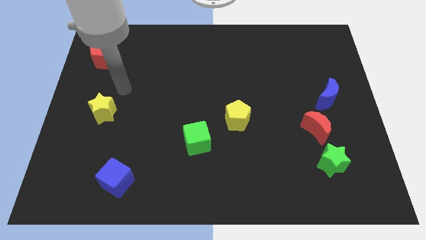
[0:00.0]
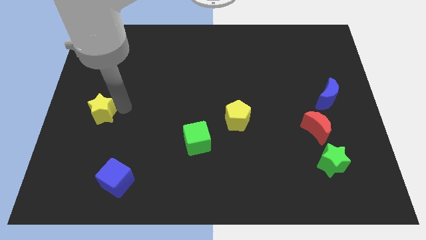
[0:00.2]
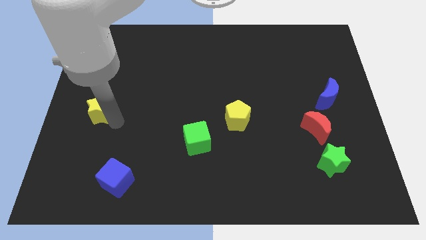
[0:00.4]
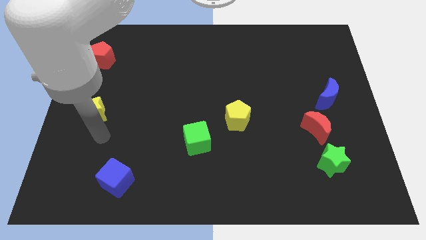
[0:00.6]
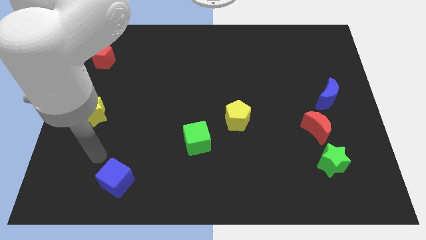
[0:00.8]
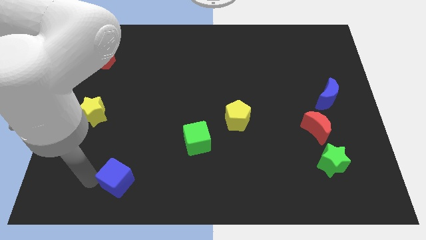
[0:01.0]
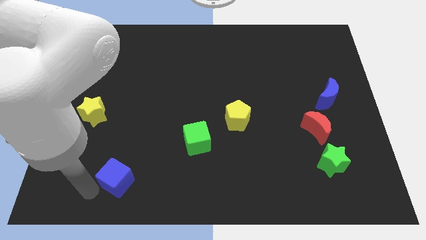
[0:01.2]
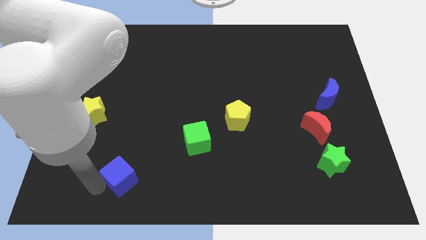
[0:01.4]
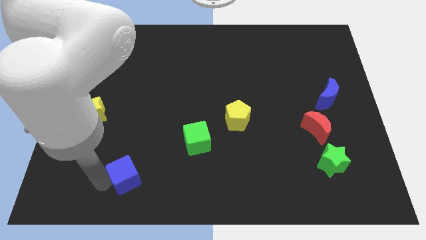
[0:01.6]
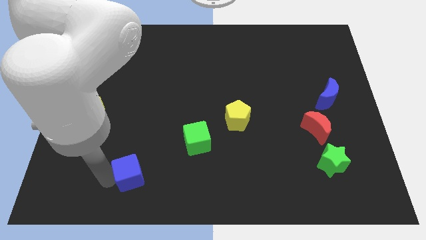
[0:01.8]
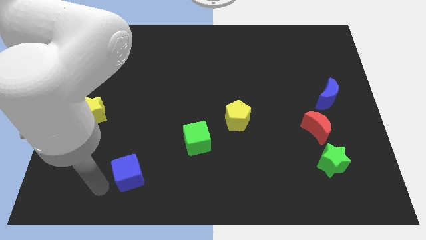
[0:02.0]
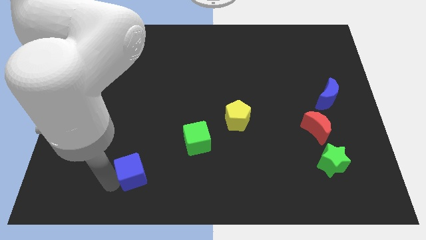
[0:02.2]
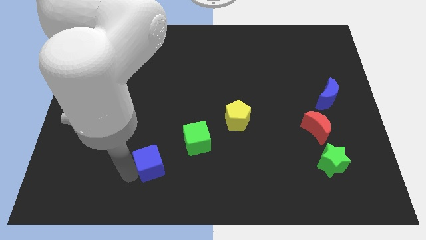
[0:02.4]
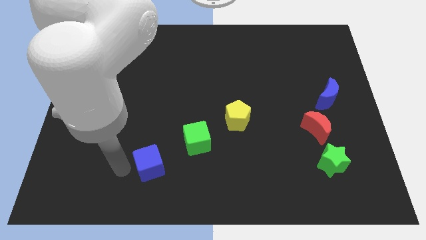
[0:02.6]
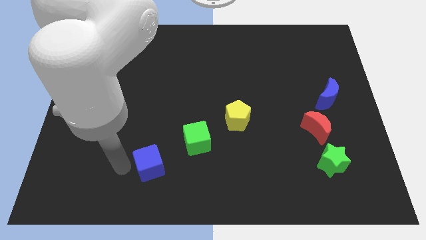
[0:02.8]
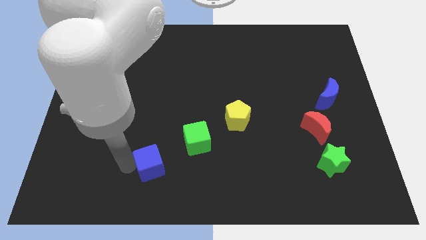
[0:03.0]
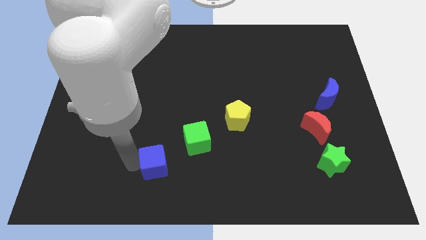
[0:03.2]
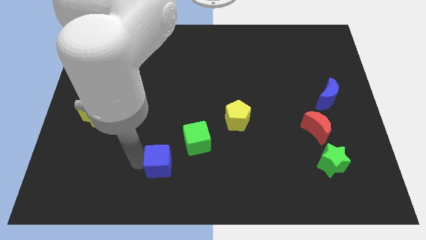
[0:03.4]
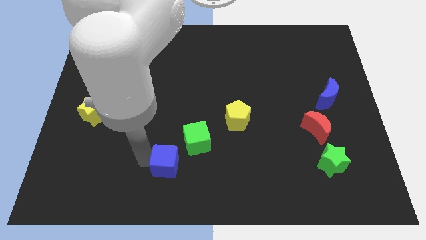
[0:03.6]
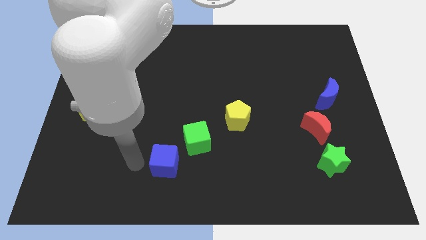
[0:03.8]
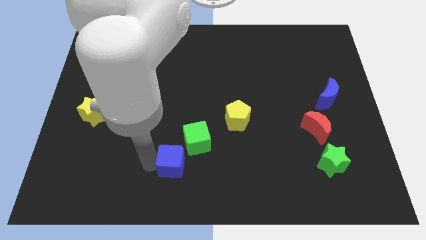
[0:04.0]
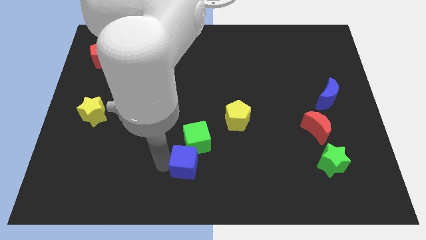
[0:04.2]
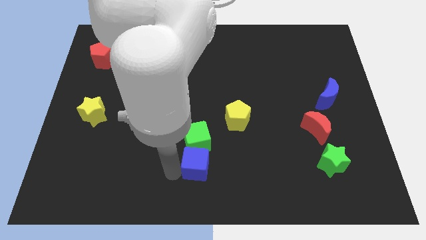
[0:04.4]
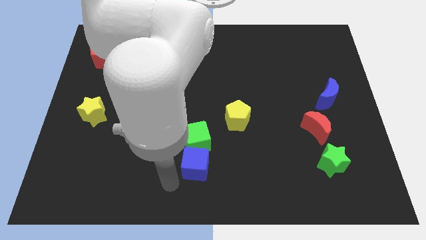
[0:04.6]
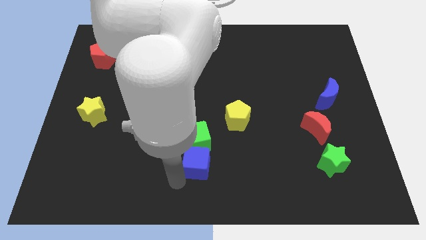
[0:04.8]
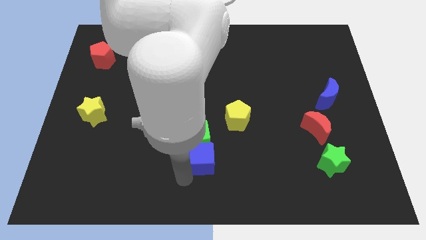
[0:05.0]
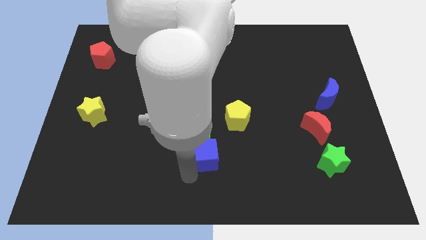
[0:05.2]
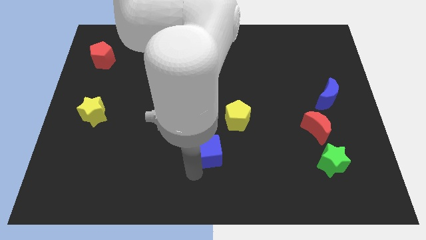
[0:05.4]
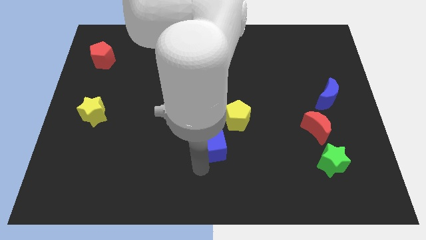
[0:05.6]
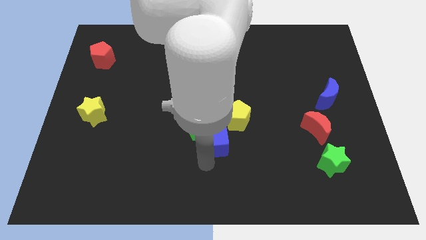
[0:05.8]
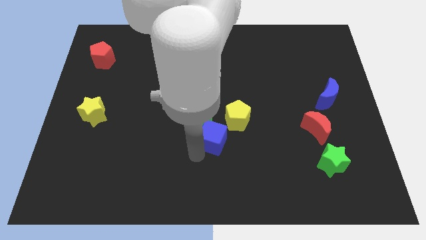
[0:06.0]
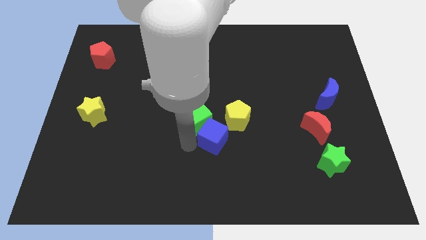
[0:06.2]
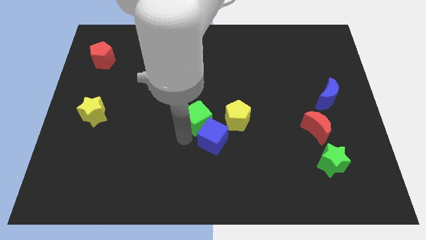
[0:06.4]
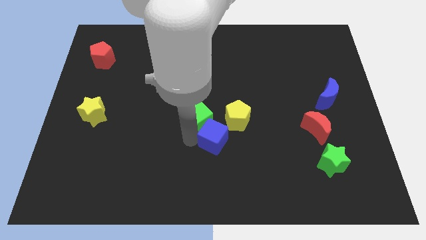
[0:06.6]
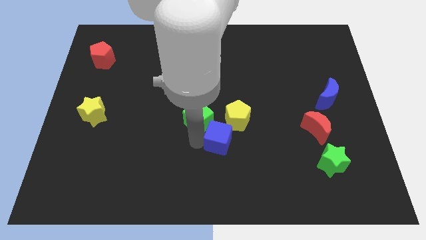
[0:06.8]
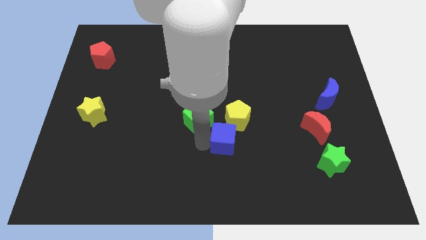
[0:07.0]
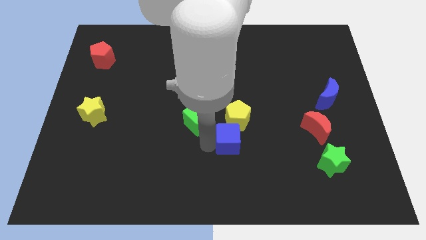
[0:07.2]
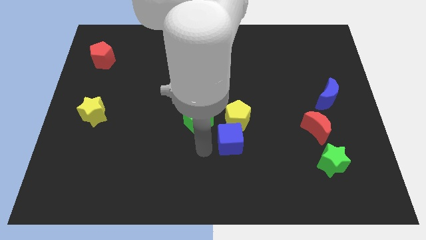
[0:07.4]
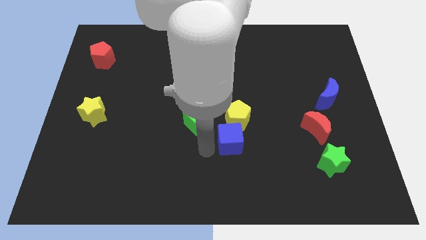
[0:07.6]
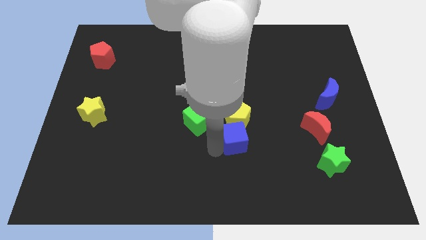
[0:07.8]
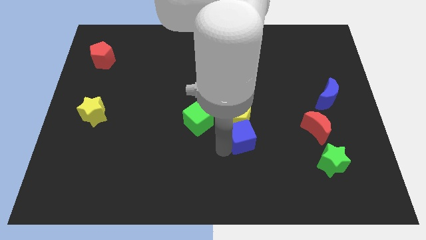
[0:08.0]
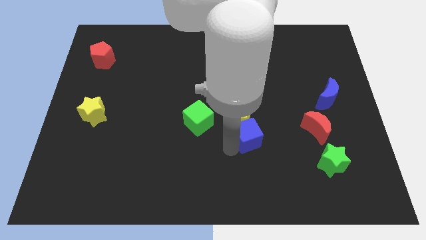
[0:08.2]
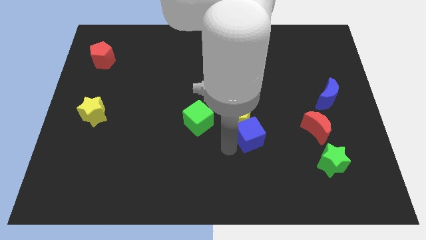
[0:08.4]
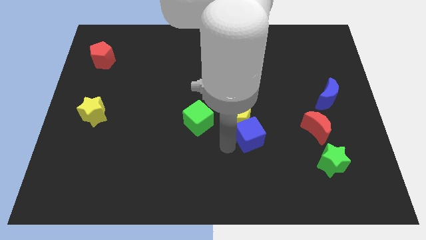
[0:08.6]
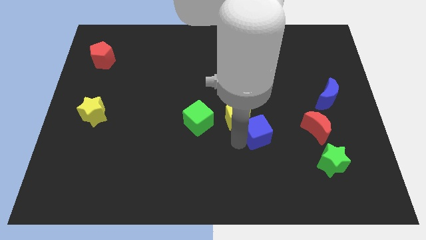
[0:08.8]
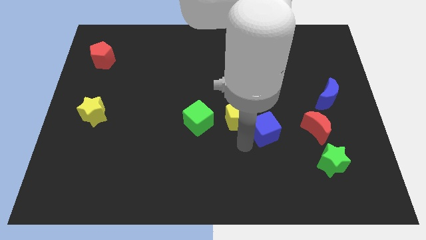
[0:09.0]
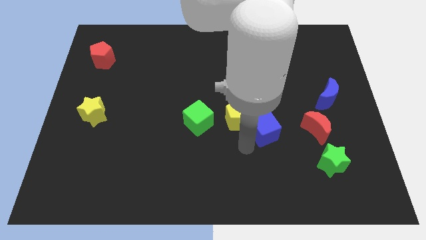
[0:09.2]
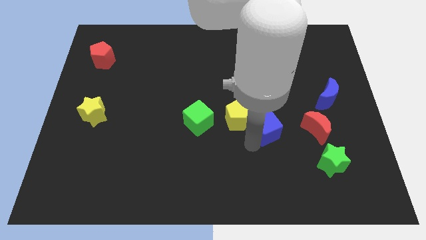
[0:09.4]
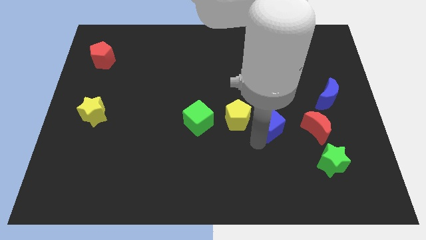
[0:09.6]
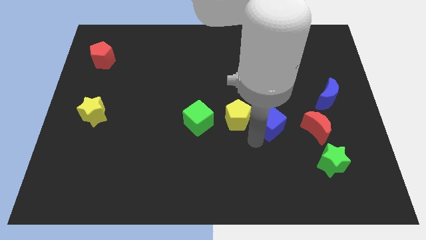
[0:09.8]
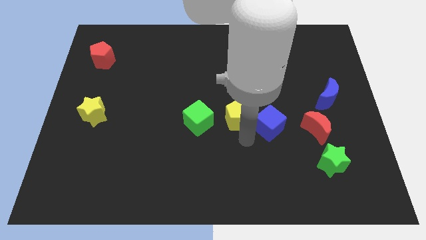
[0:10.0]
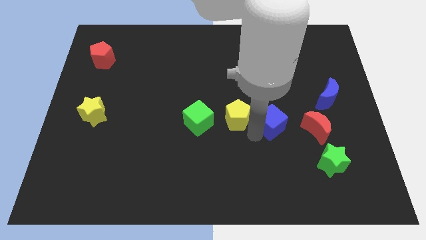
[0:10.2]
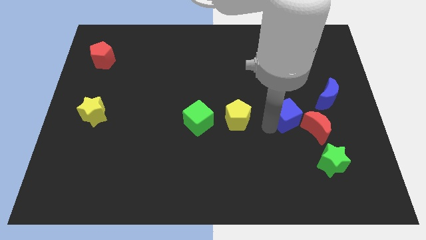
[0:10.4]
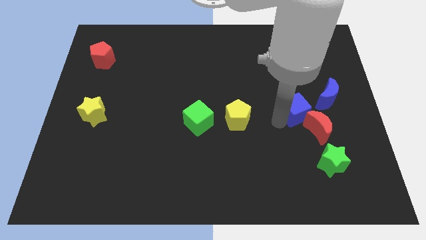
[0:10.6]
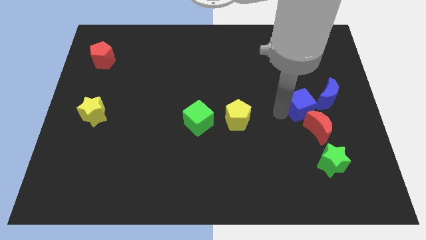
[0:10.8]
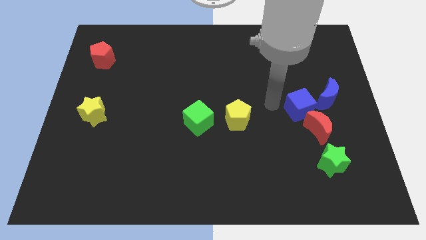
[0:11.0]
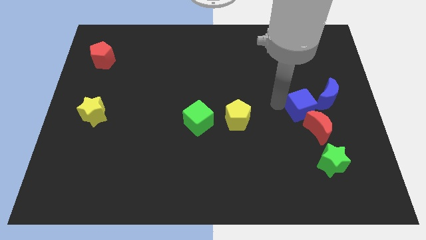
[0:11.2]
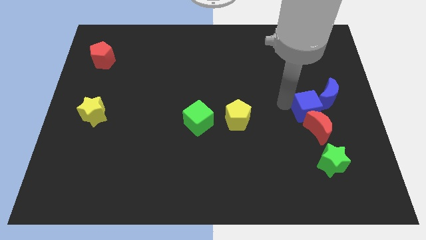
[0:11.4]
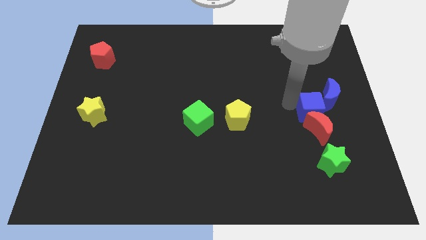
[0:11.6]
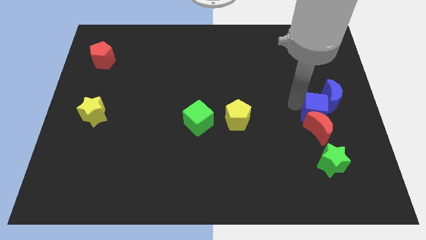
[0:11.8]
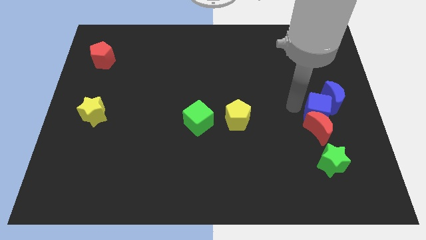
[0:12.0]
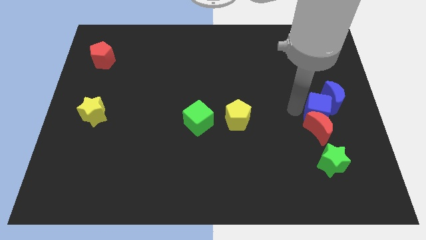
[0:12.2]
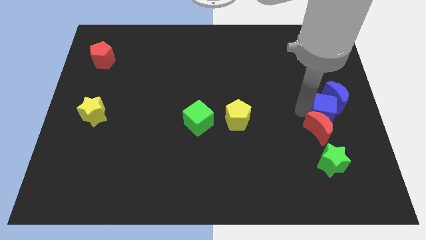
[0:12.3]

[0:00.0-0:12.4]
push the blue cube to the center right
